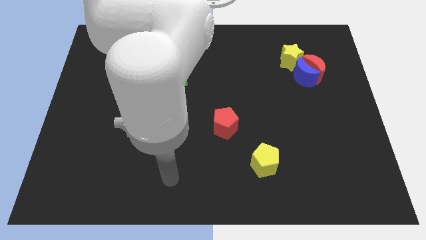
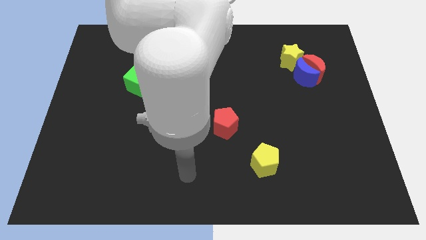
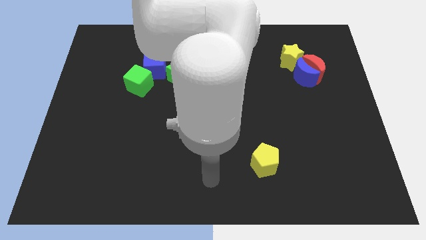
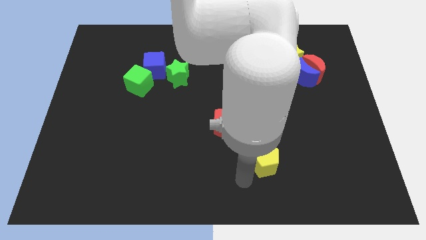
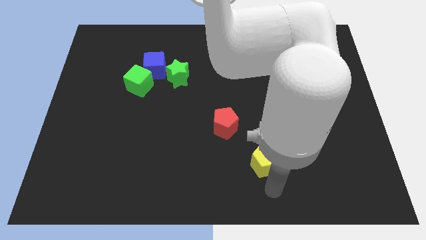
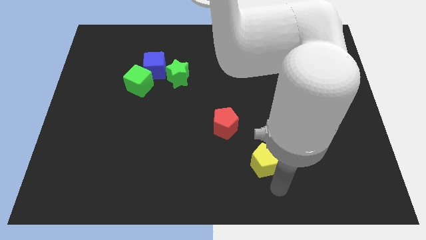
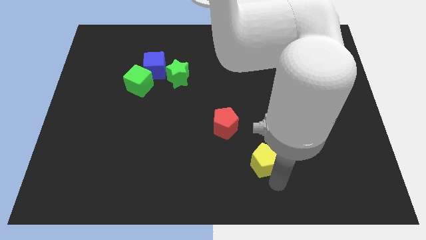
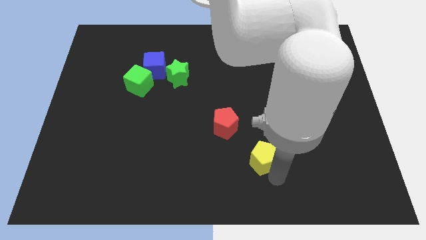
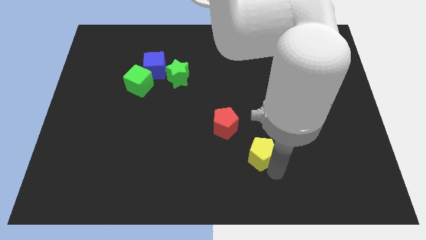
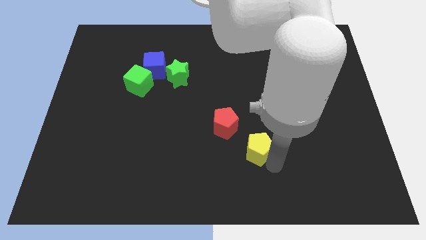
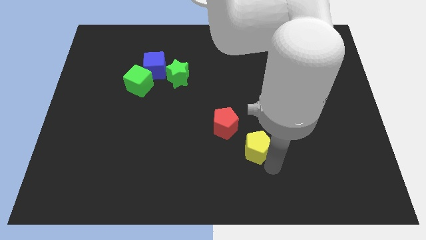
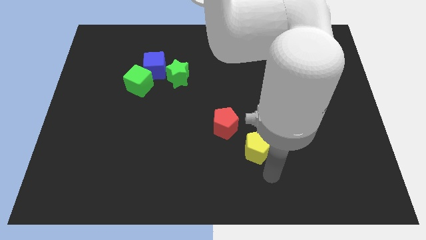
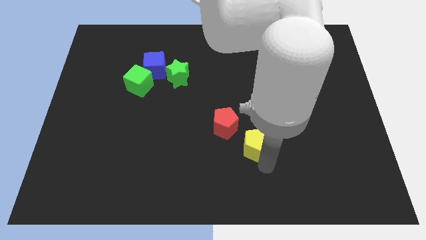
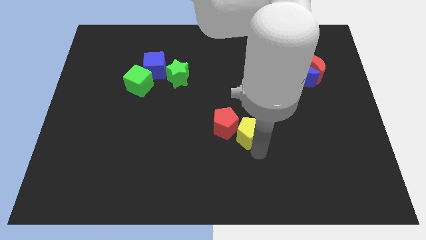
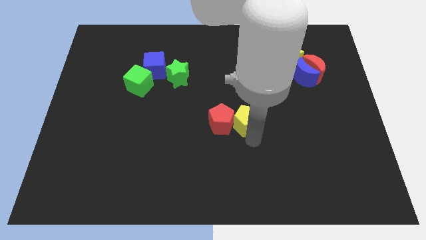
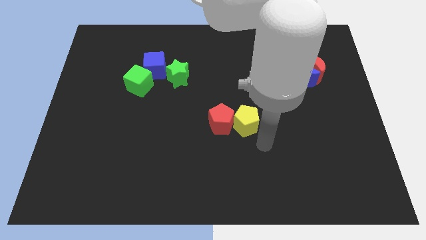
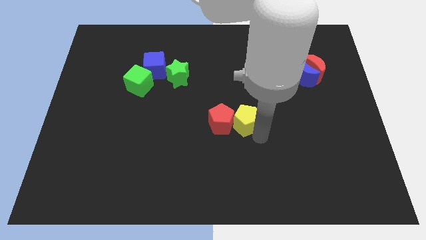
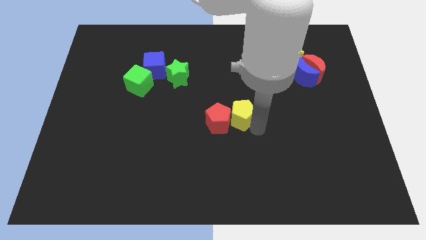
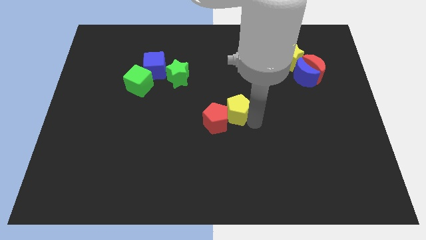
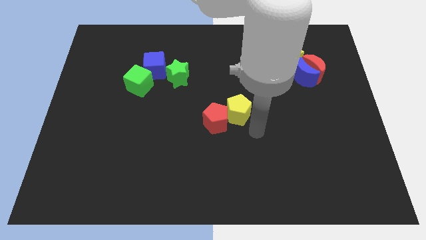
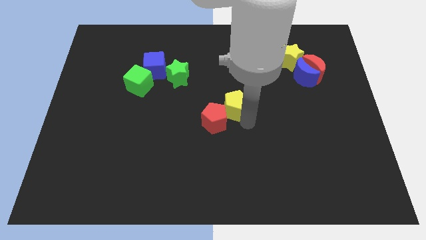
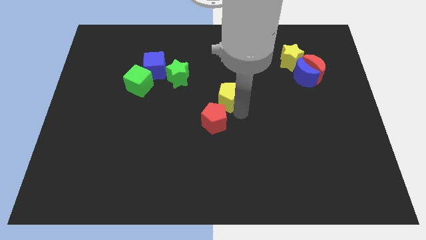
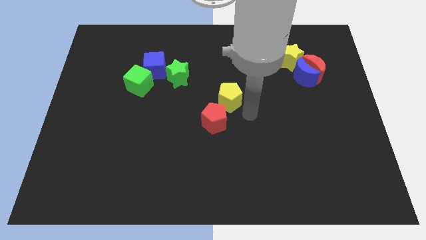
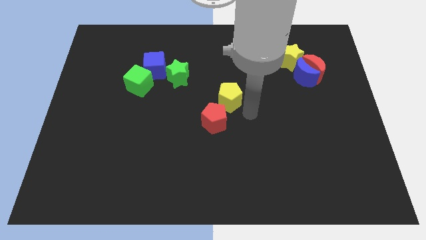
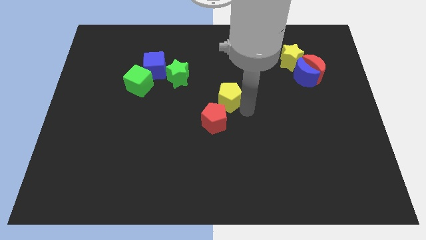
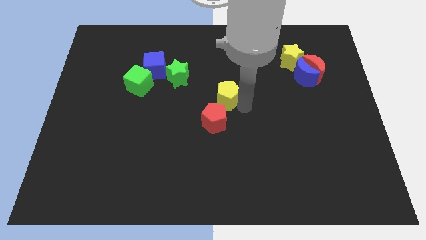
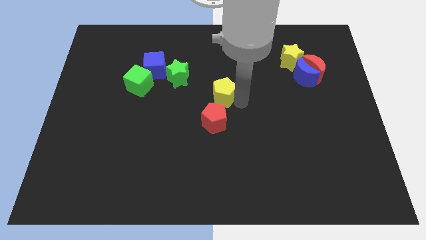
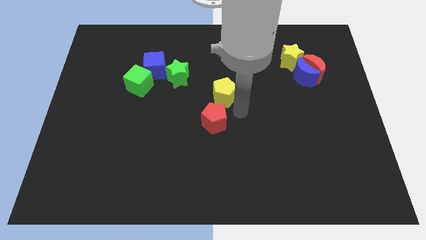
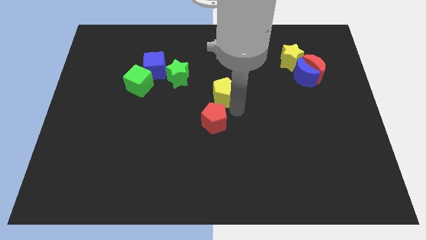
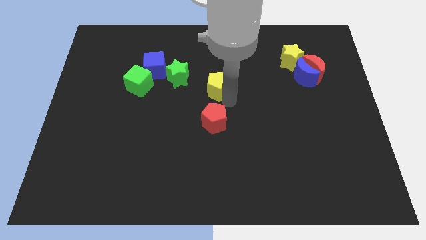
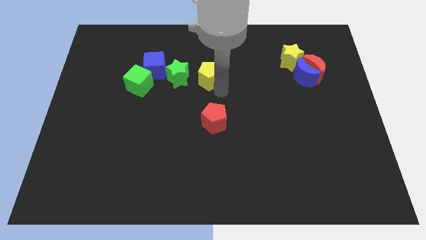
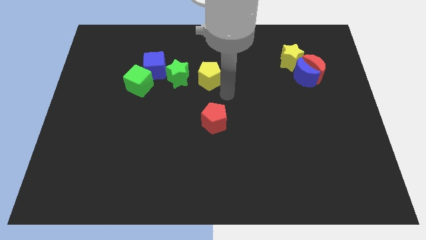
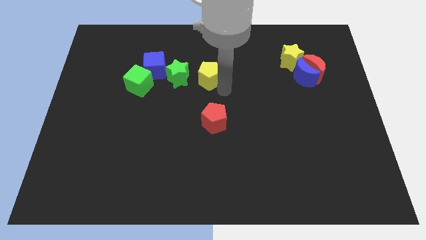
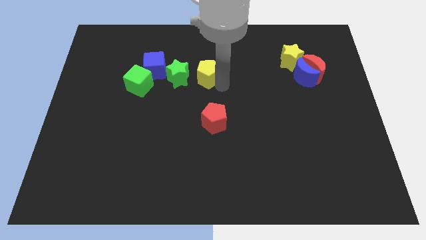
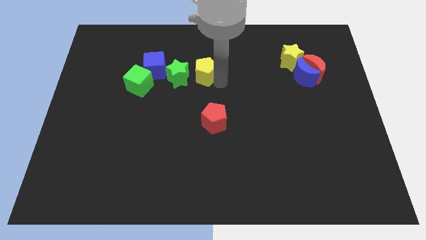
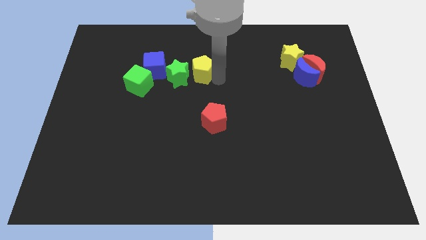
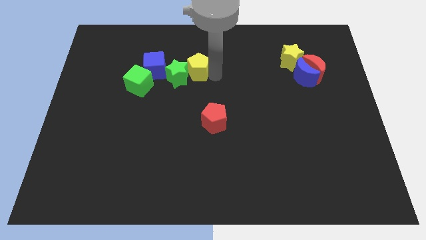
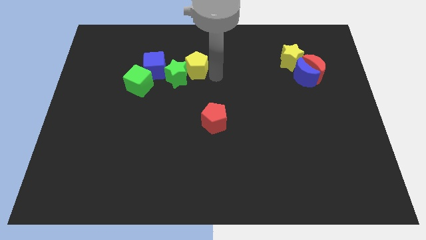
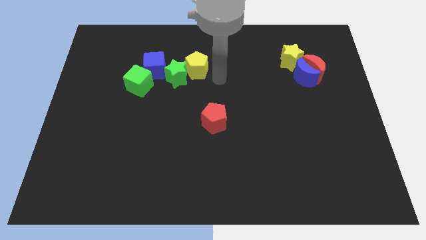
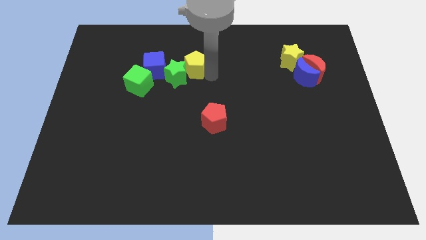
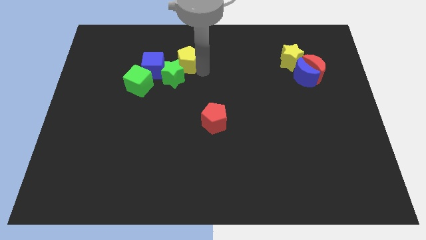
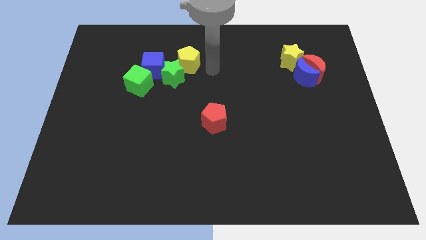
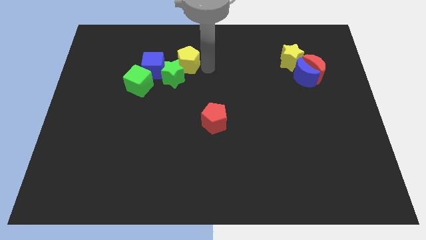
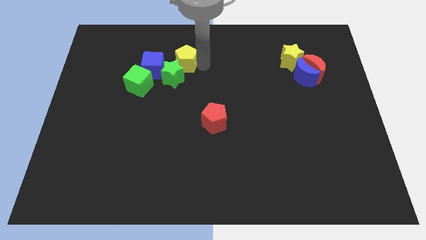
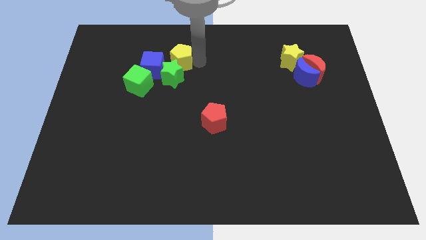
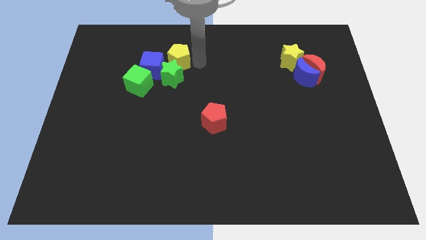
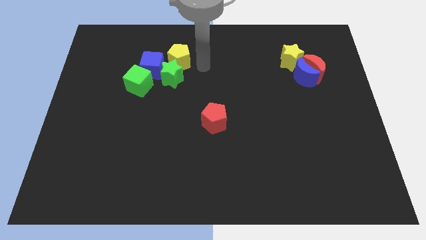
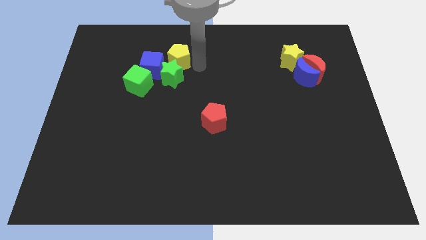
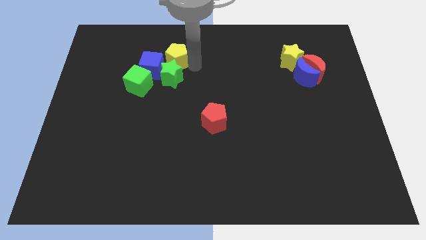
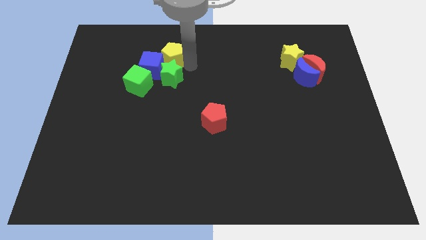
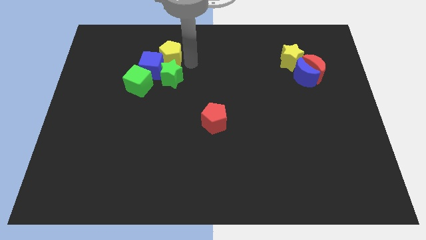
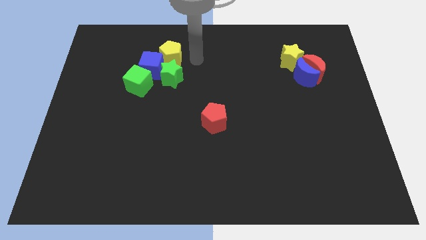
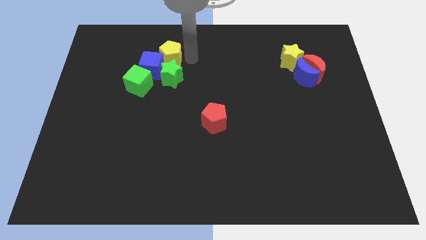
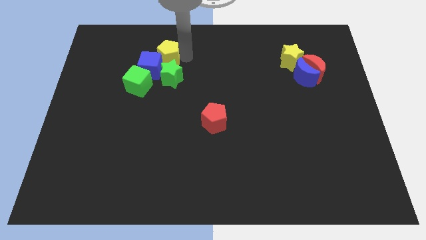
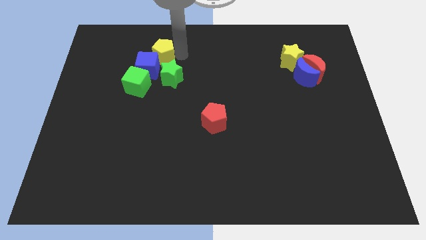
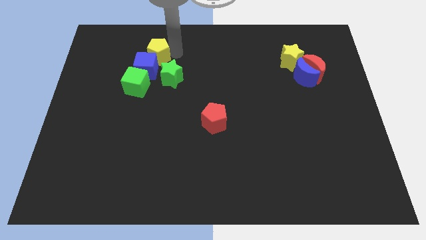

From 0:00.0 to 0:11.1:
move the yellow pentagon to the top side of the green cube

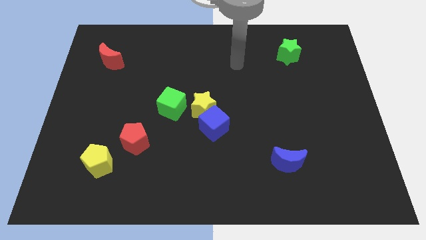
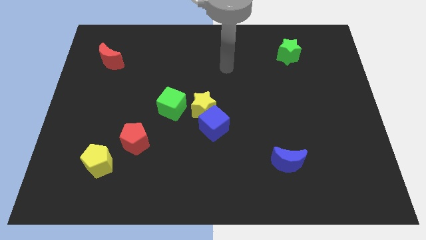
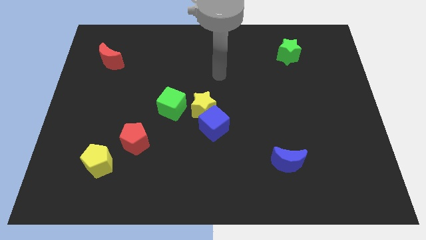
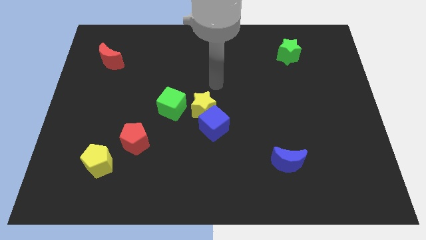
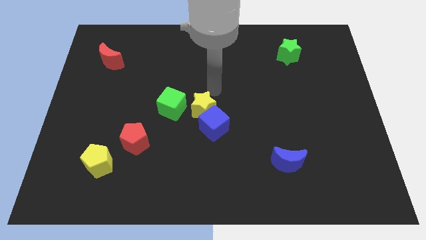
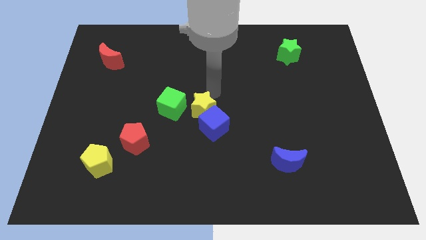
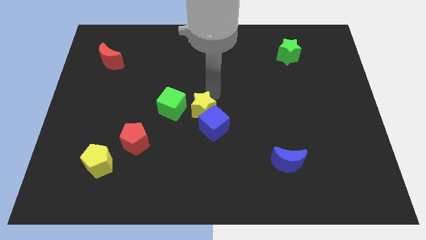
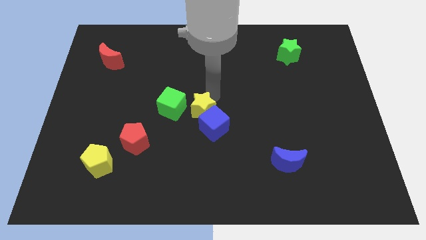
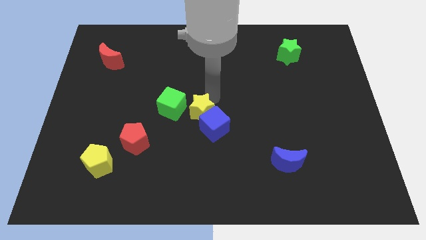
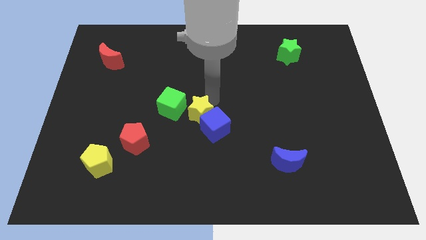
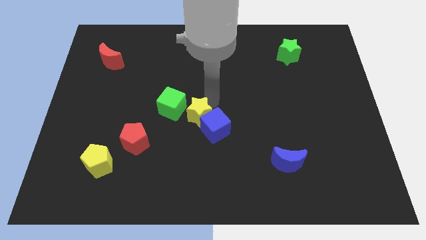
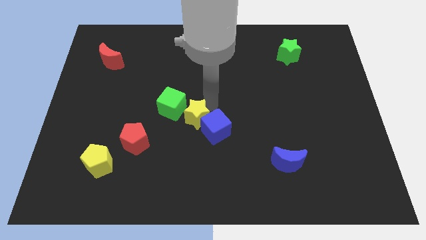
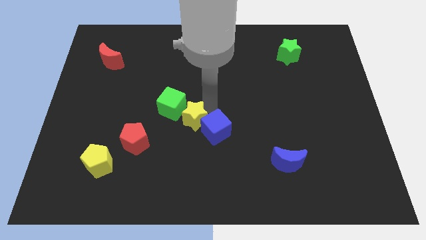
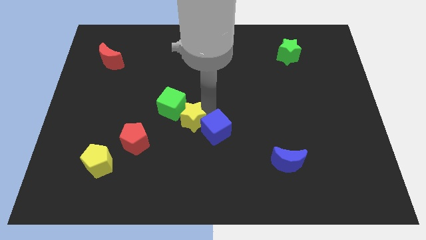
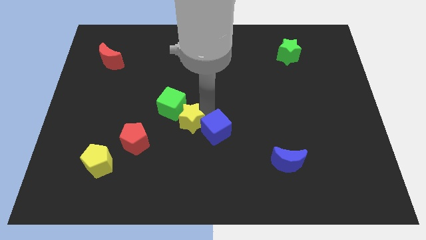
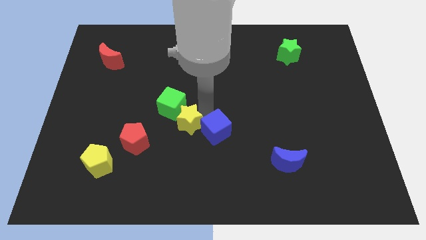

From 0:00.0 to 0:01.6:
push the yellow star to the right side of the red pentagon
